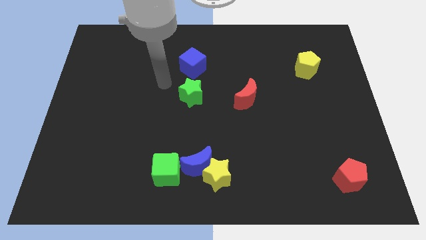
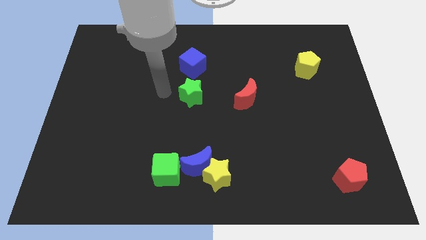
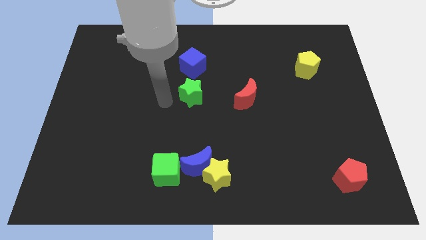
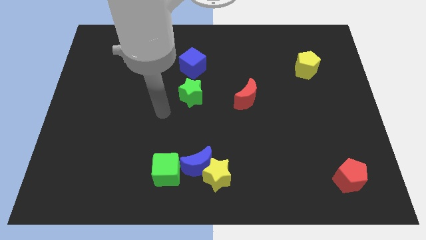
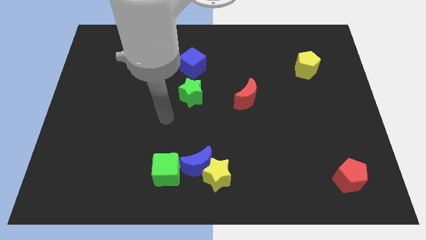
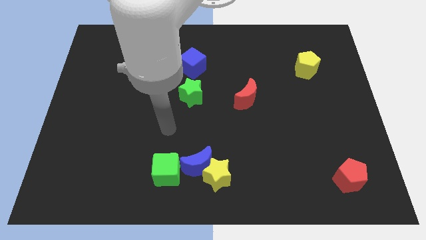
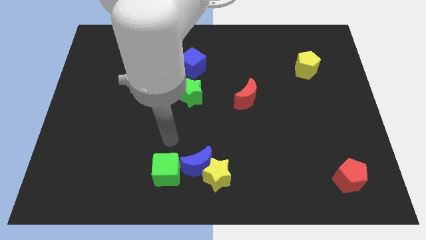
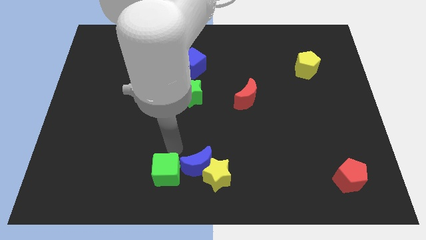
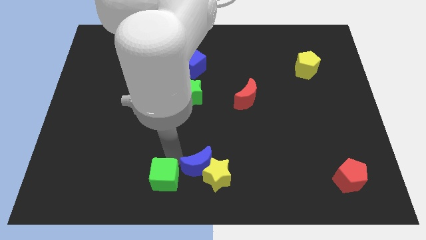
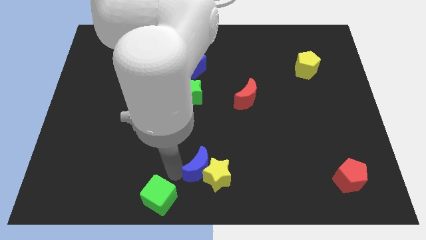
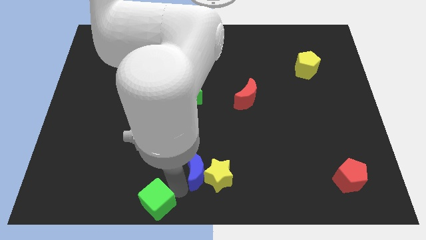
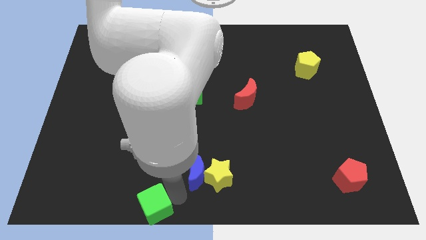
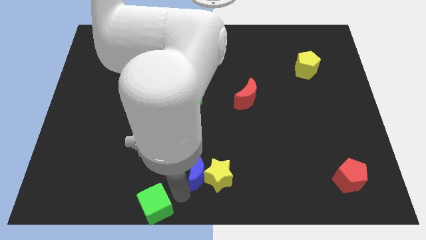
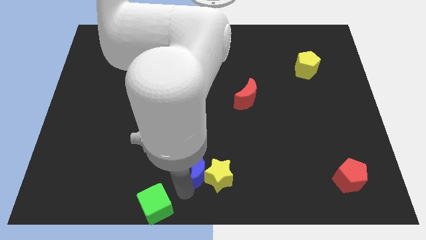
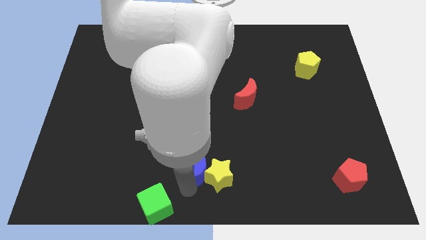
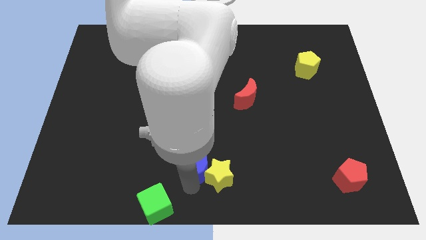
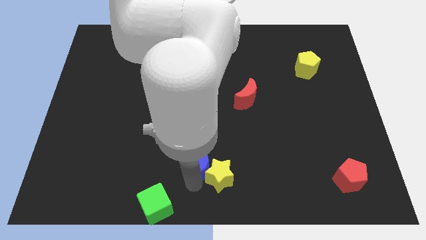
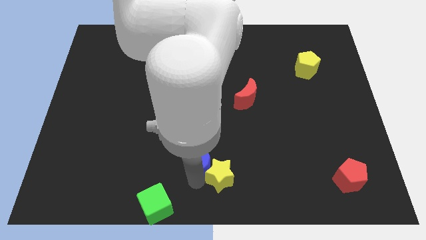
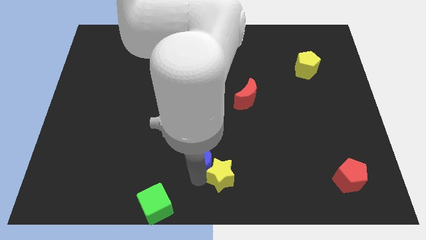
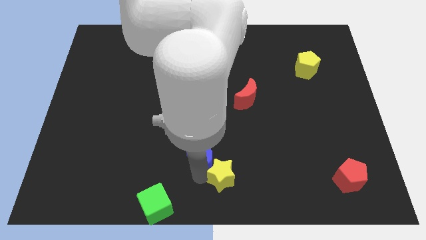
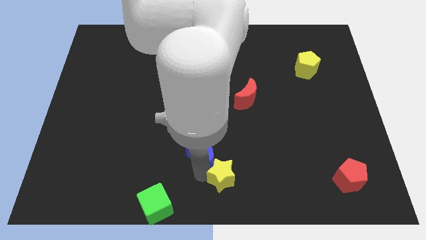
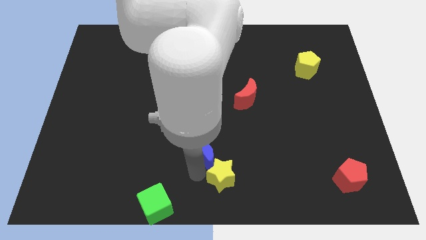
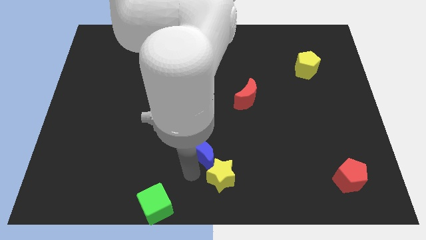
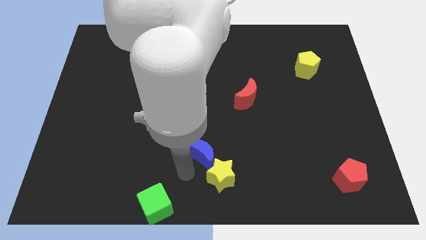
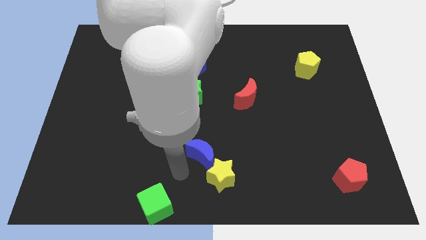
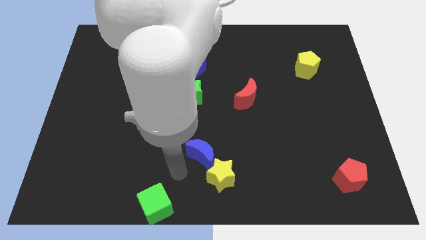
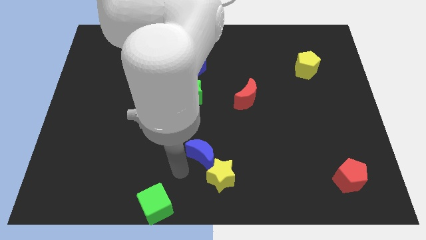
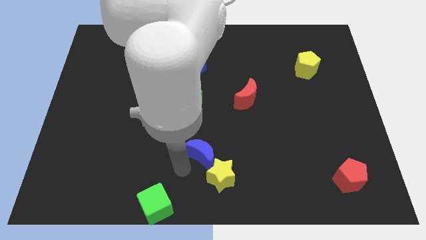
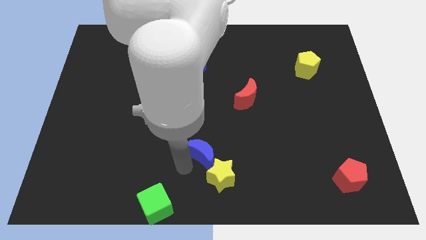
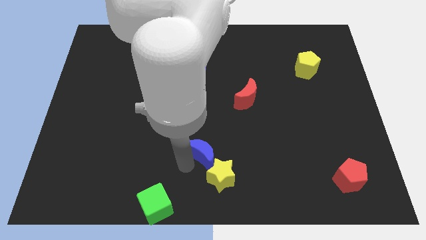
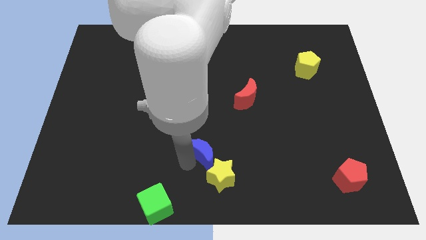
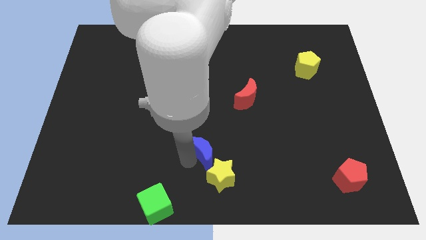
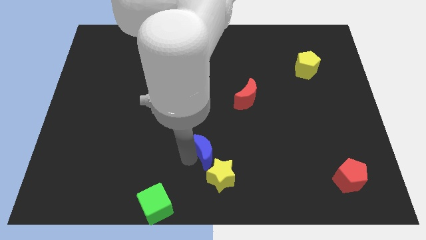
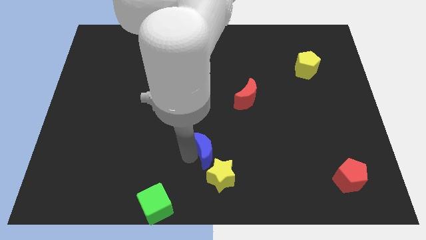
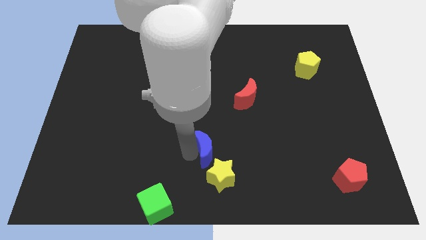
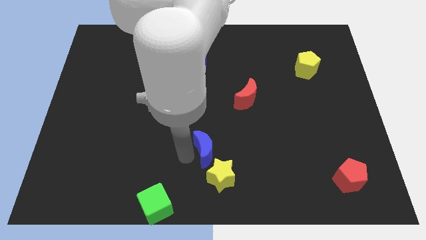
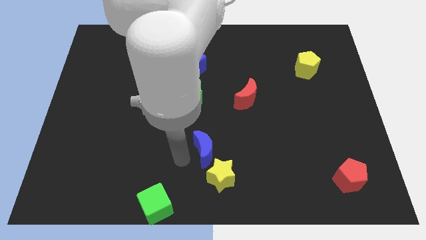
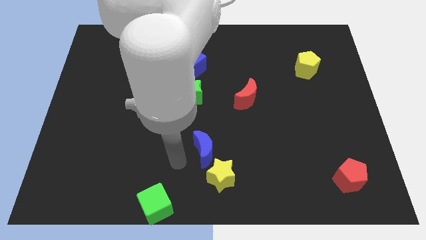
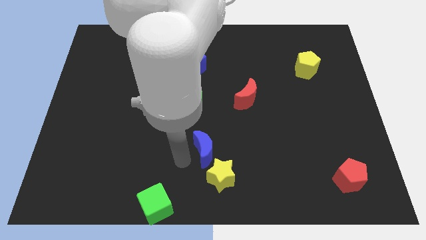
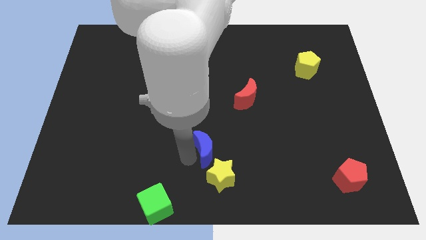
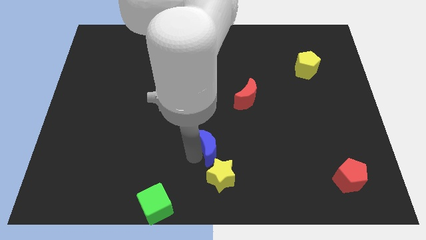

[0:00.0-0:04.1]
separate the blue moon from the yellow star and green cube

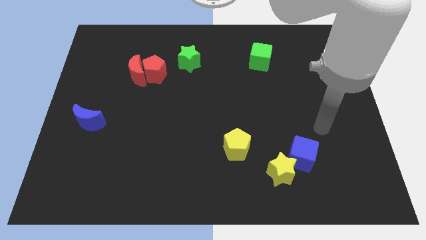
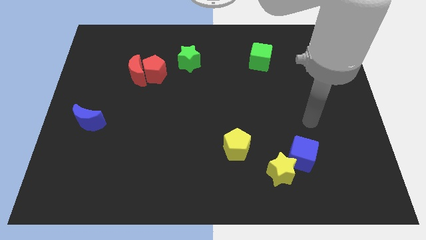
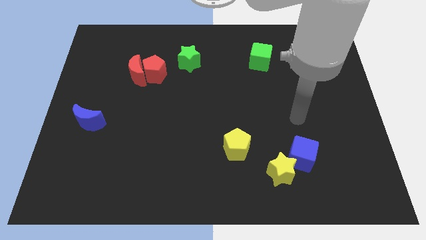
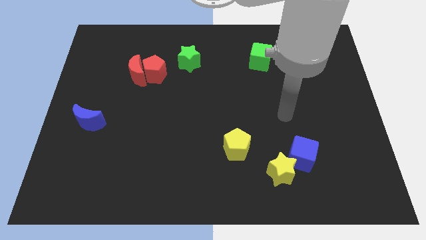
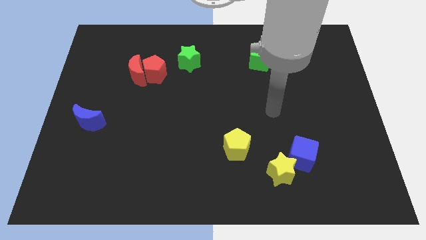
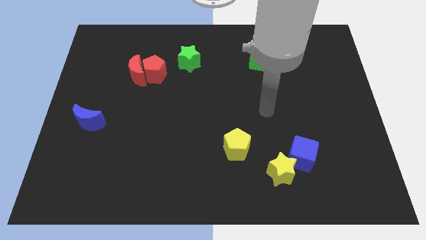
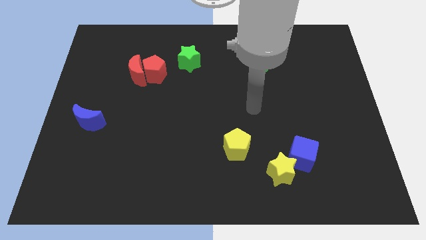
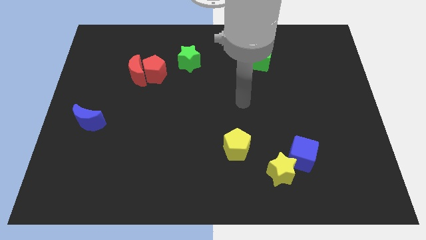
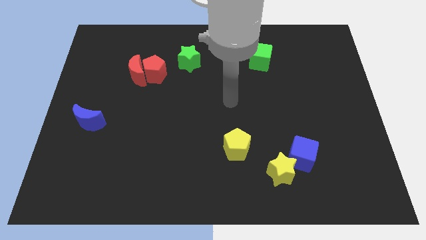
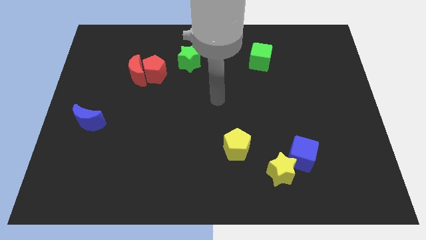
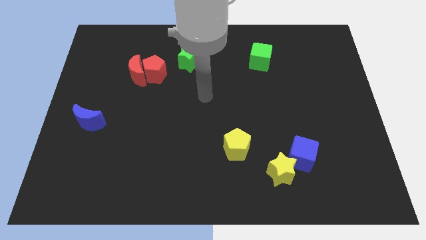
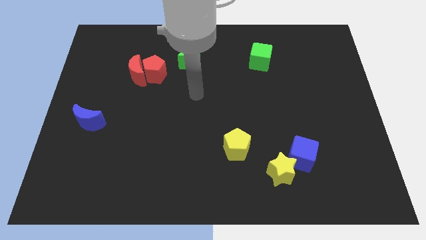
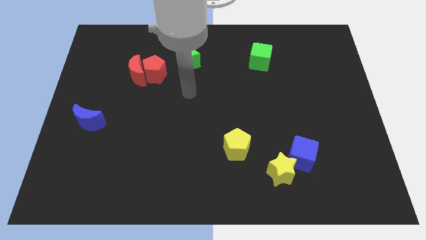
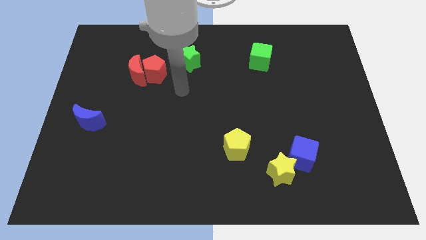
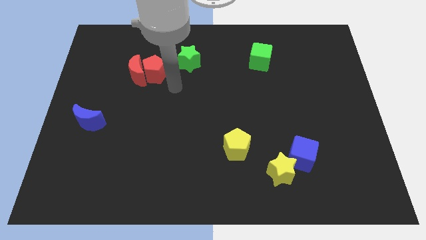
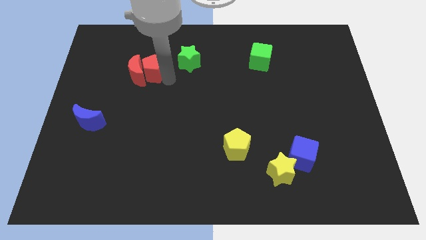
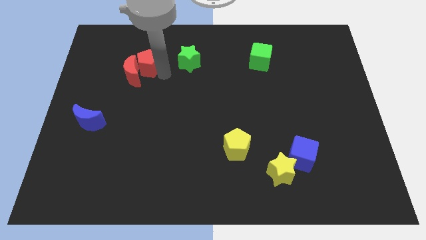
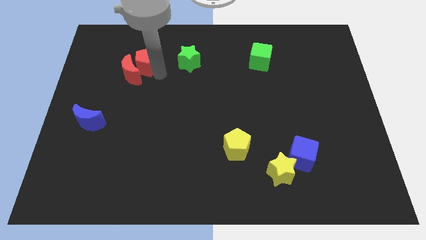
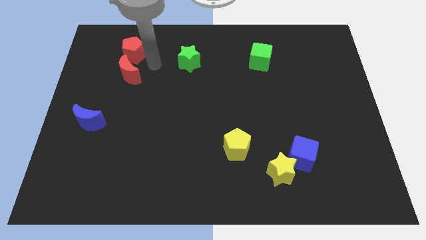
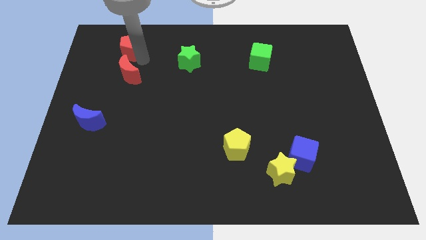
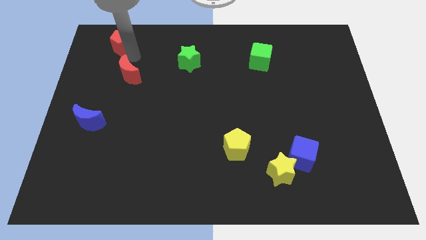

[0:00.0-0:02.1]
separate the red moon from the red pentagon

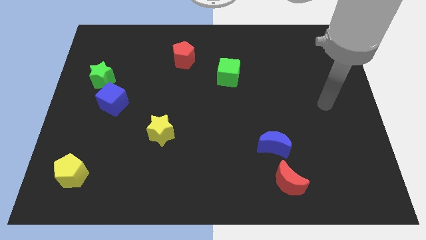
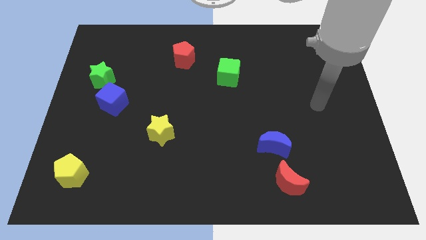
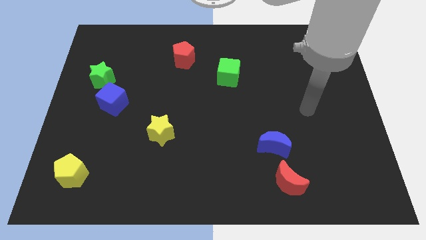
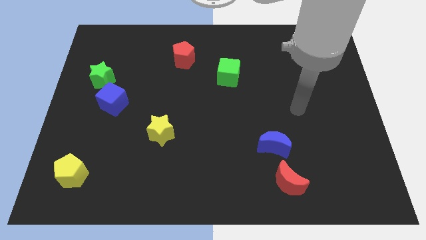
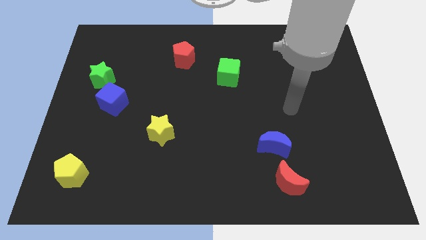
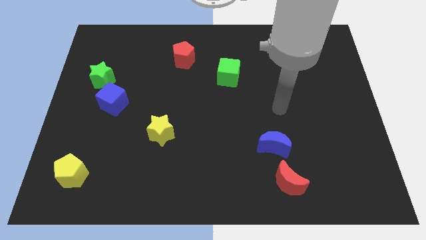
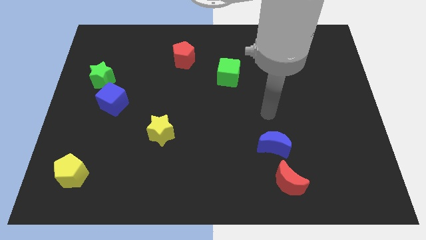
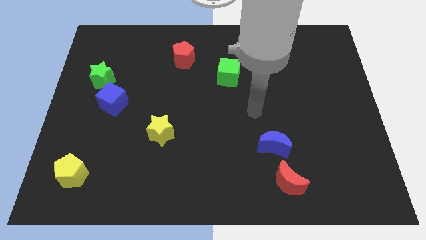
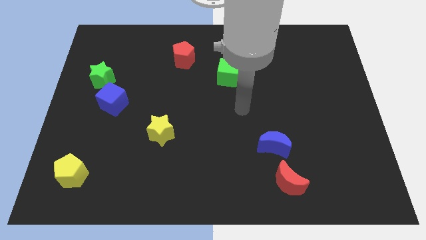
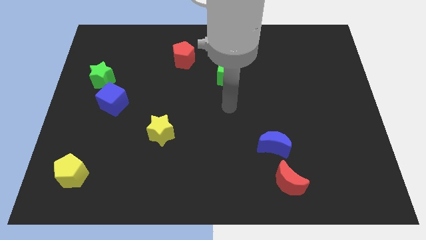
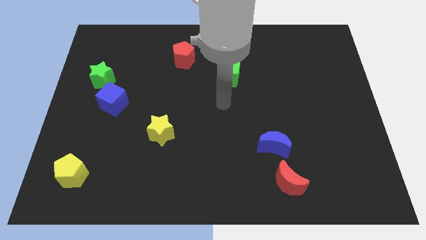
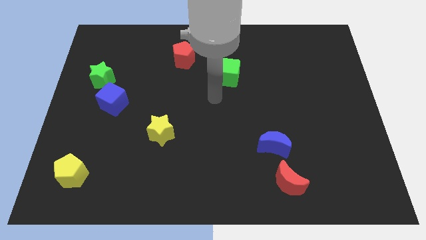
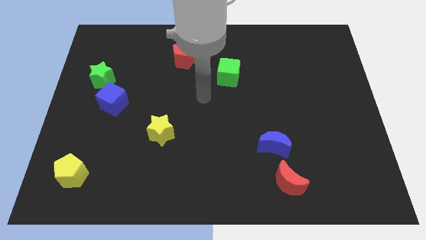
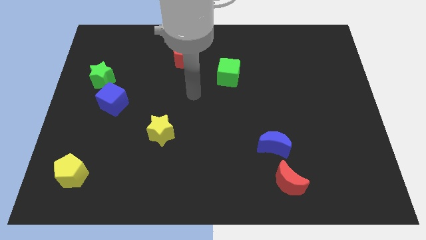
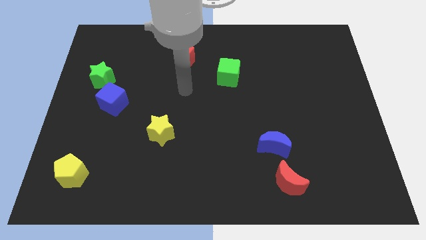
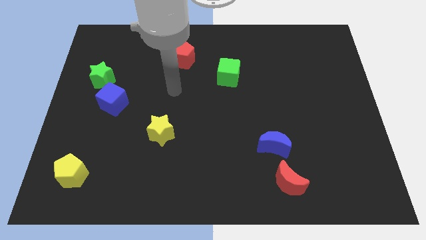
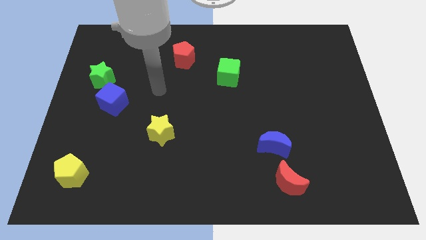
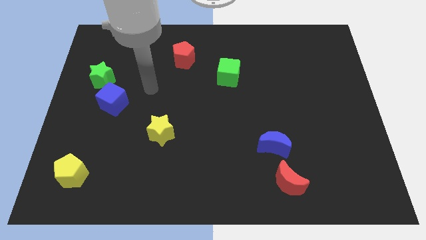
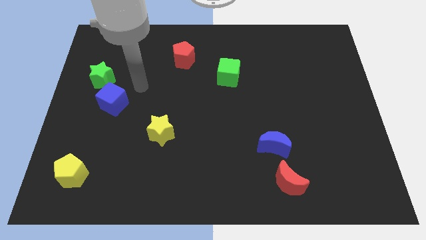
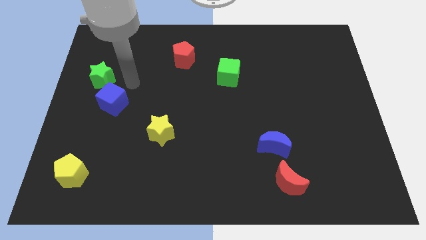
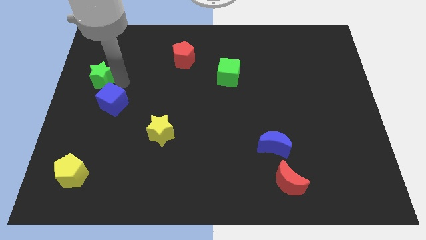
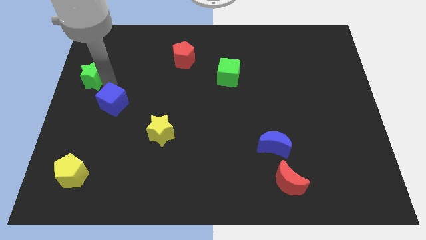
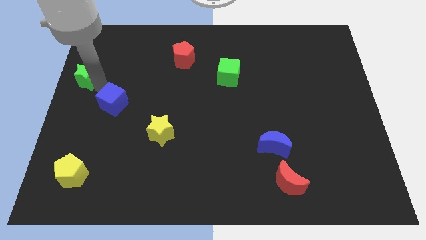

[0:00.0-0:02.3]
pull the blue cube apart from the green star

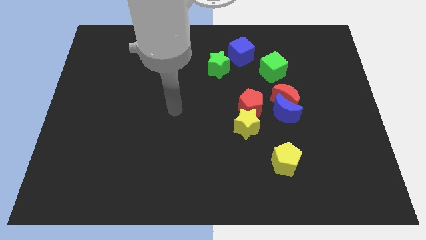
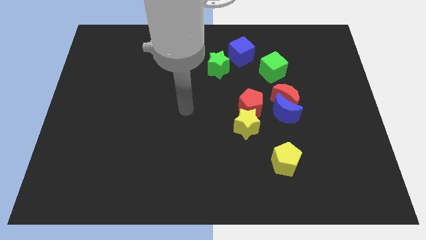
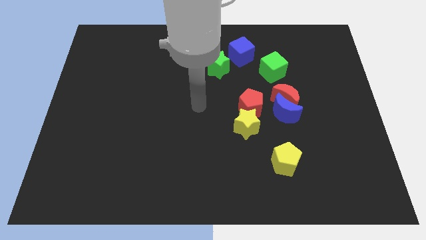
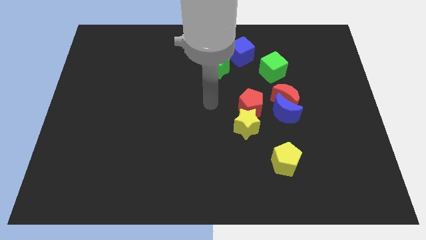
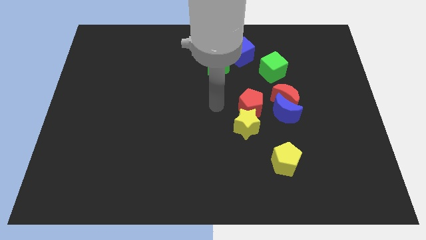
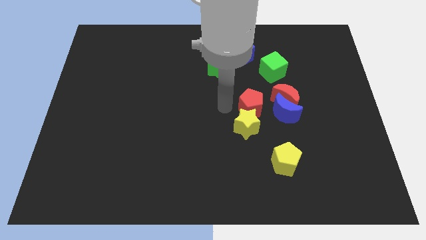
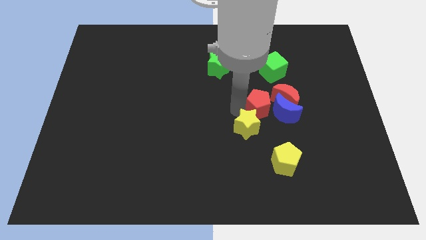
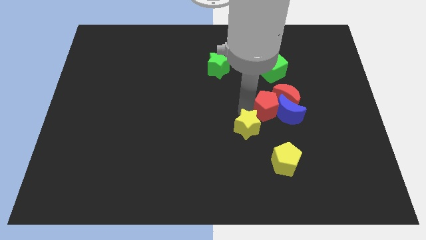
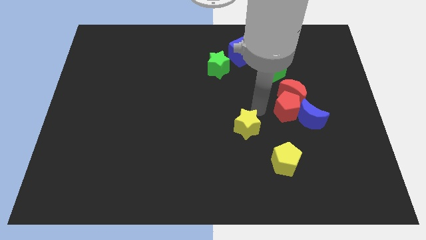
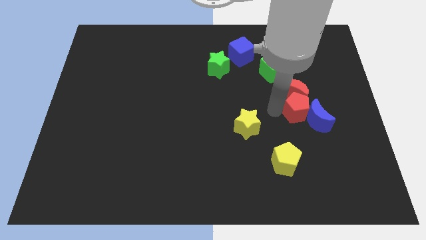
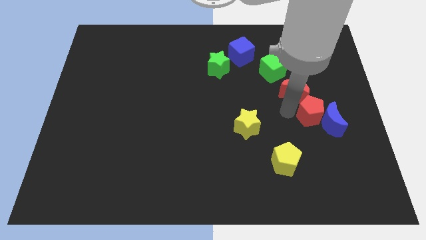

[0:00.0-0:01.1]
move the blue moon away from the red moon, red pentagon, and yellow star
